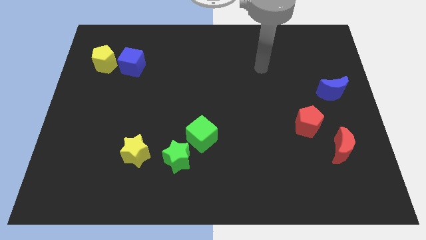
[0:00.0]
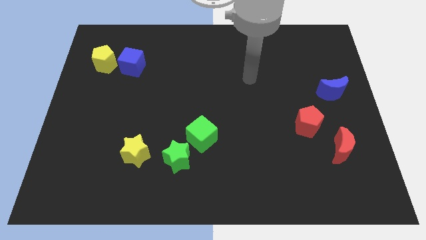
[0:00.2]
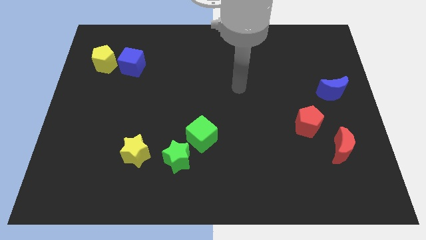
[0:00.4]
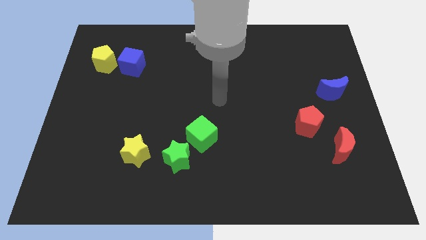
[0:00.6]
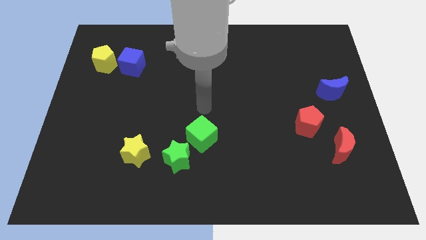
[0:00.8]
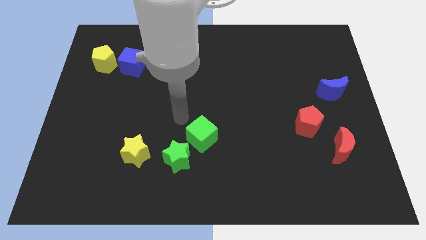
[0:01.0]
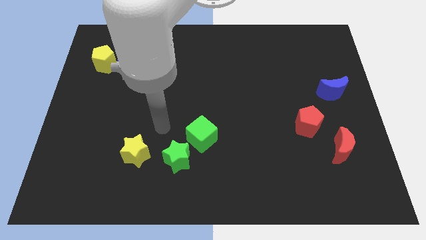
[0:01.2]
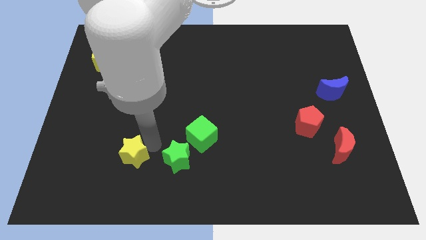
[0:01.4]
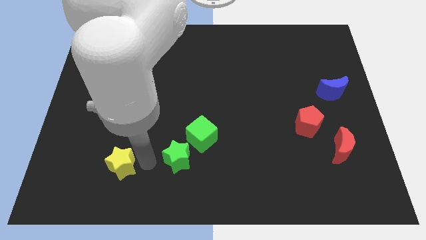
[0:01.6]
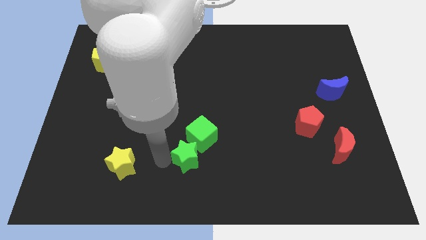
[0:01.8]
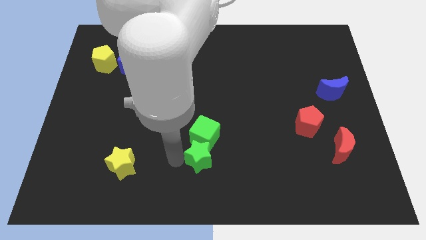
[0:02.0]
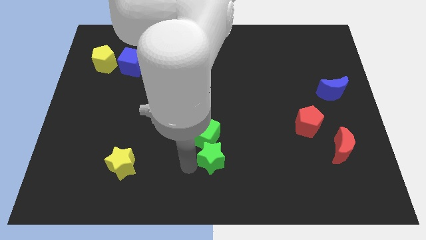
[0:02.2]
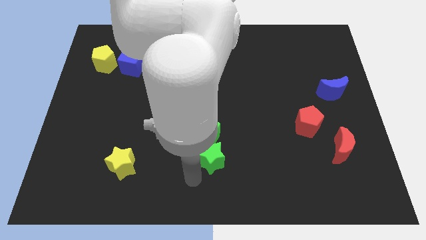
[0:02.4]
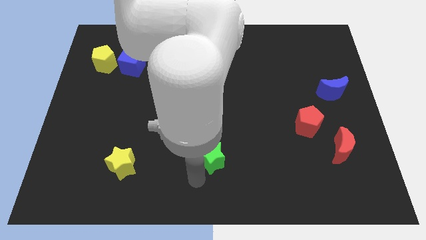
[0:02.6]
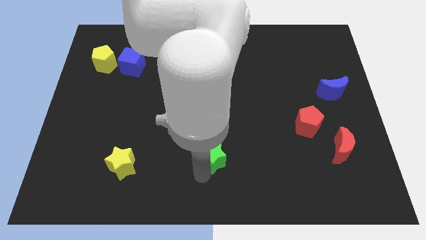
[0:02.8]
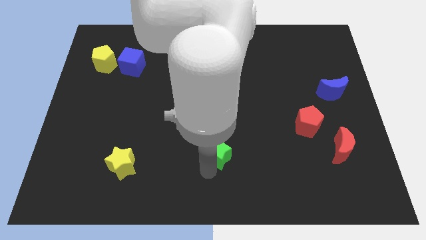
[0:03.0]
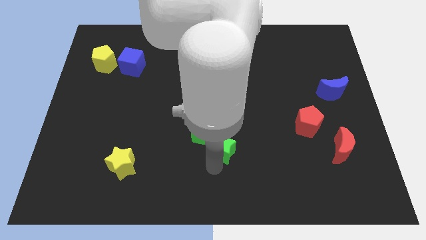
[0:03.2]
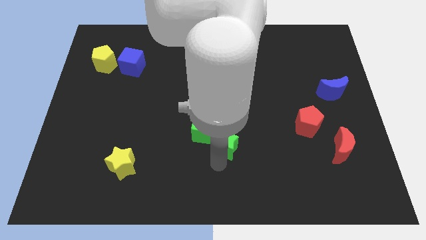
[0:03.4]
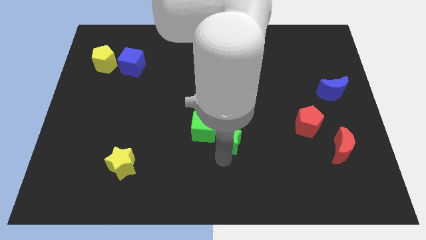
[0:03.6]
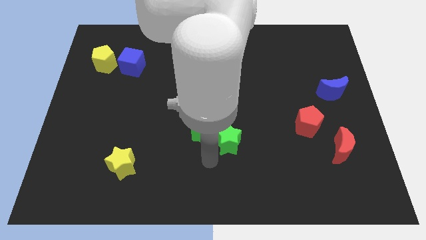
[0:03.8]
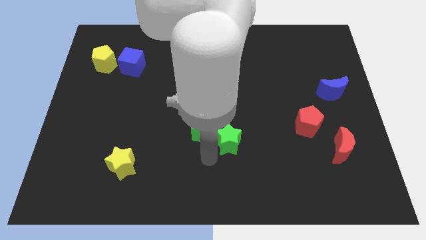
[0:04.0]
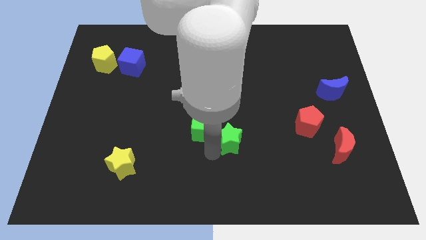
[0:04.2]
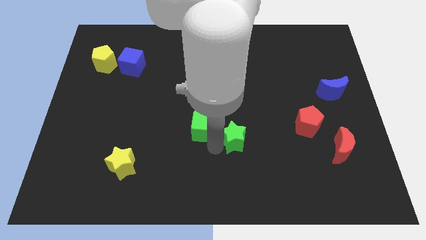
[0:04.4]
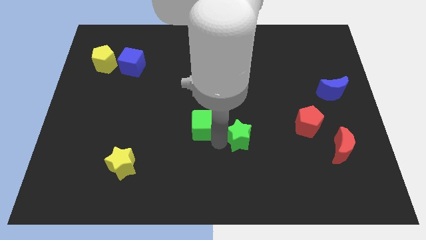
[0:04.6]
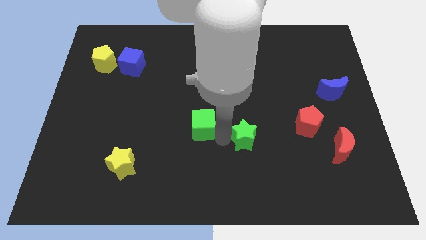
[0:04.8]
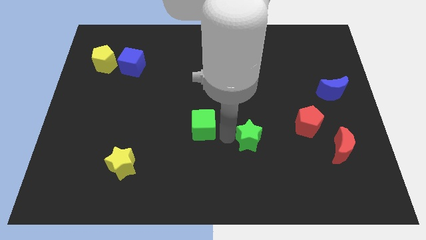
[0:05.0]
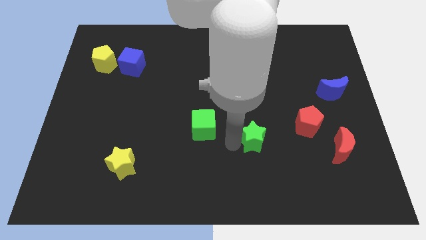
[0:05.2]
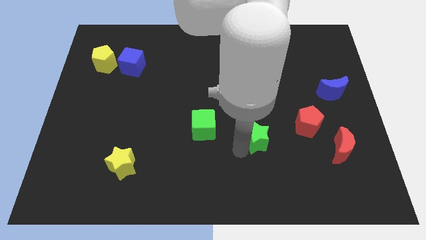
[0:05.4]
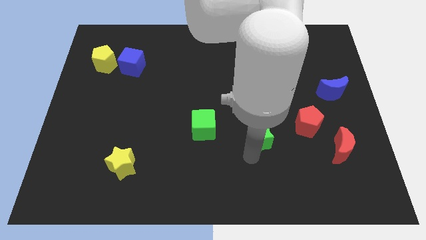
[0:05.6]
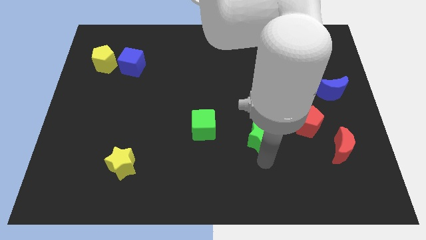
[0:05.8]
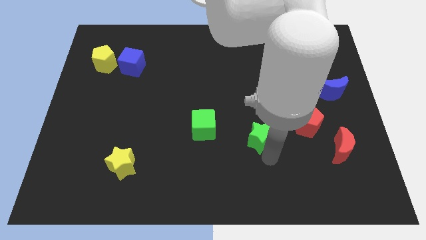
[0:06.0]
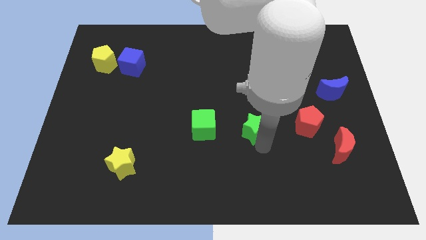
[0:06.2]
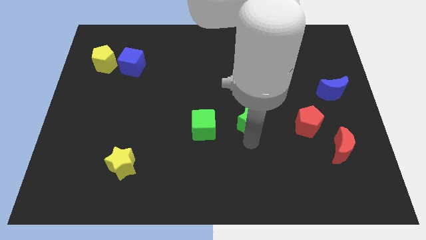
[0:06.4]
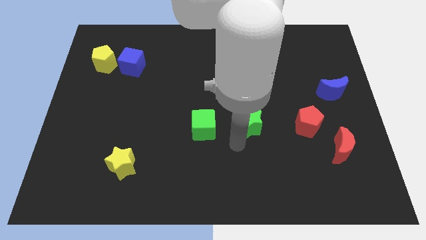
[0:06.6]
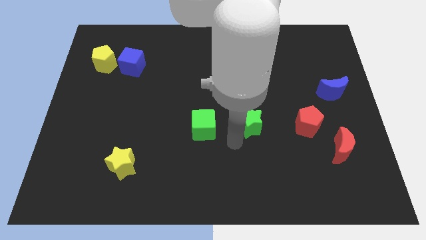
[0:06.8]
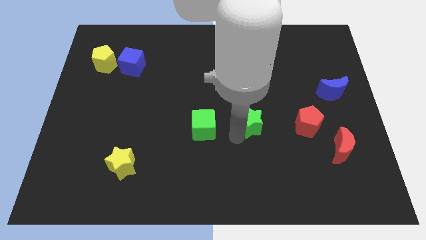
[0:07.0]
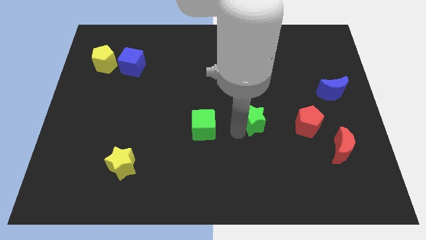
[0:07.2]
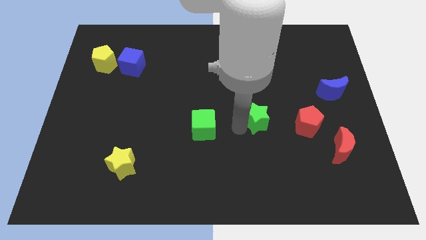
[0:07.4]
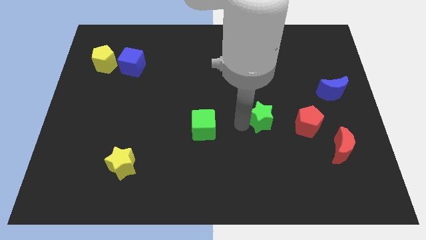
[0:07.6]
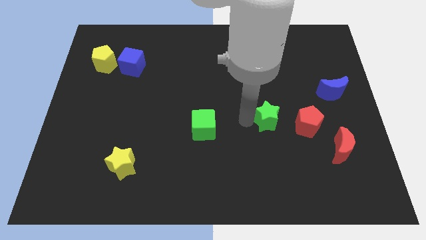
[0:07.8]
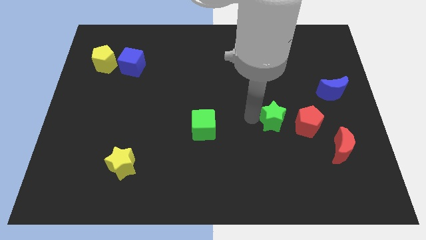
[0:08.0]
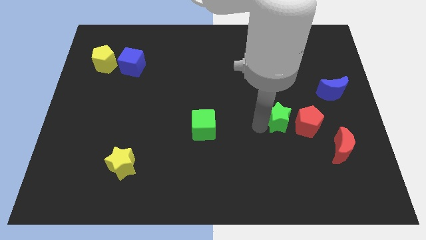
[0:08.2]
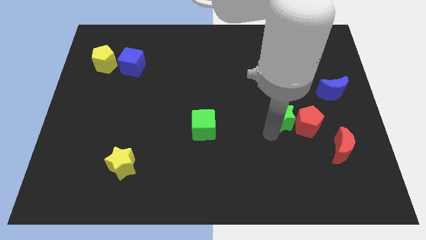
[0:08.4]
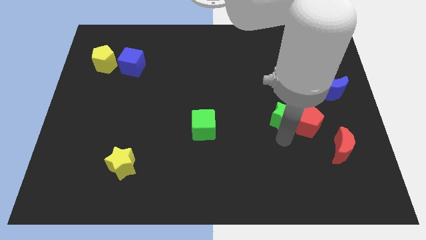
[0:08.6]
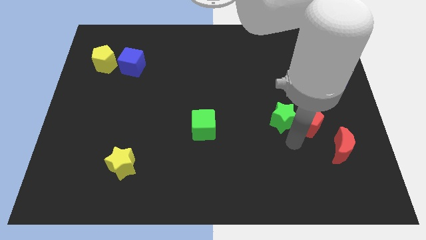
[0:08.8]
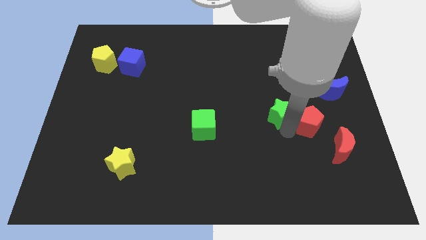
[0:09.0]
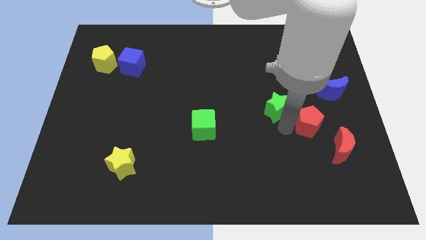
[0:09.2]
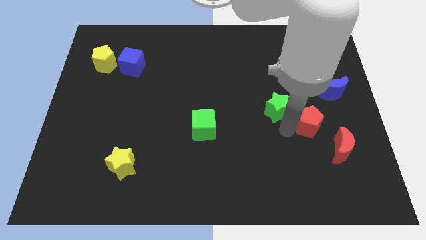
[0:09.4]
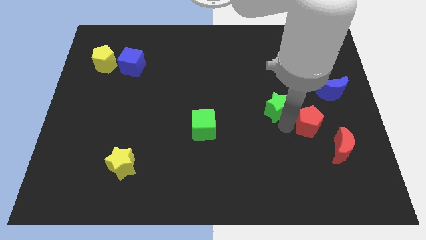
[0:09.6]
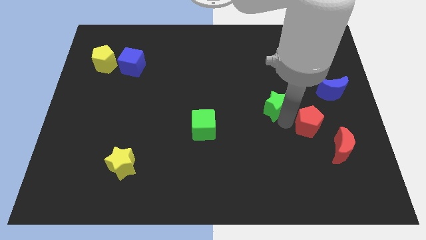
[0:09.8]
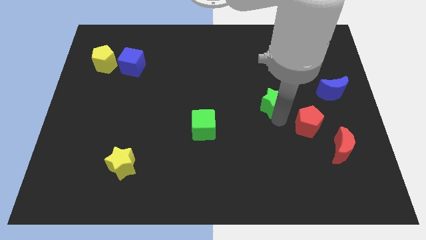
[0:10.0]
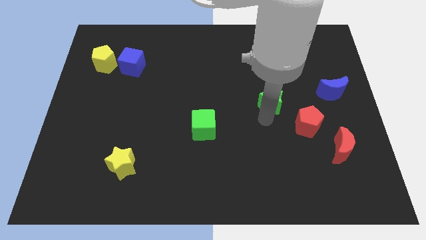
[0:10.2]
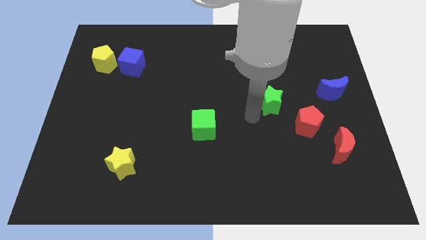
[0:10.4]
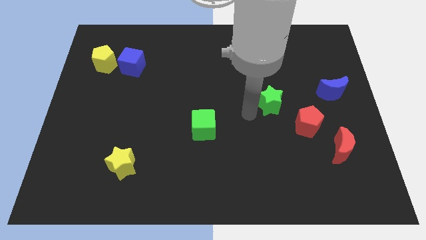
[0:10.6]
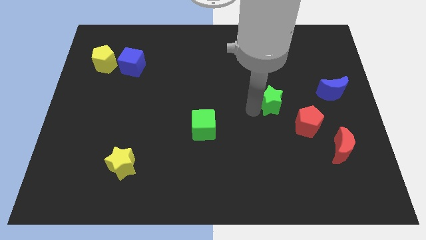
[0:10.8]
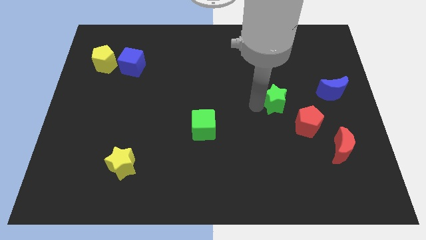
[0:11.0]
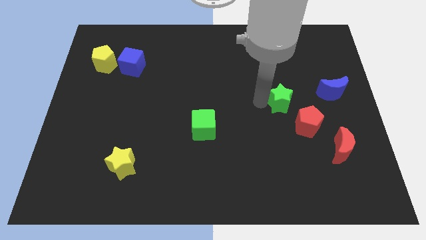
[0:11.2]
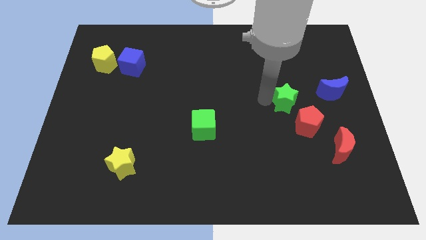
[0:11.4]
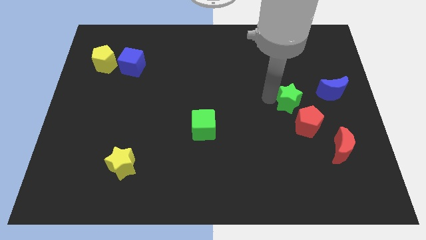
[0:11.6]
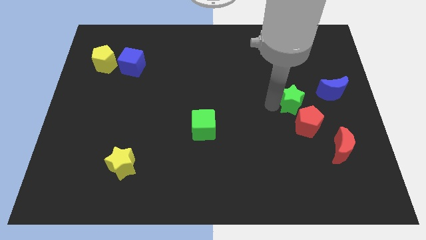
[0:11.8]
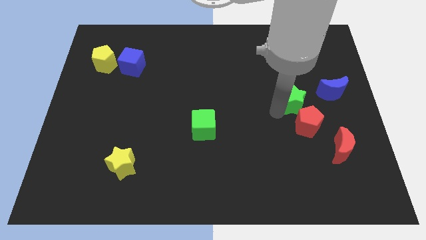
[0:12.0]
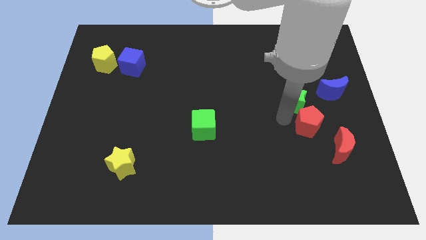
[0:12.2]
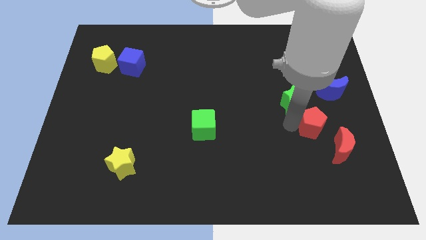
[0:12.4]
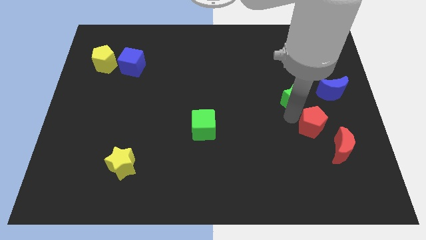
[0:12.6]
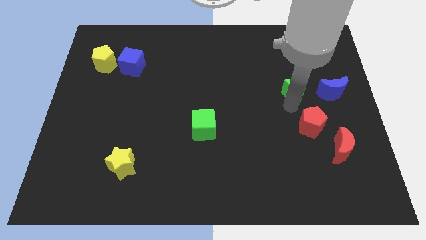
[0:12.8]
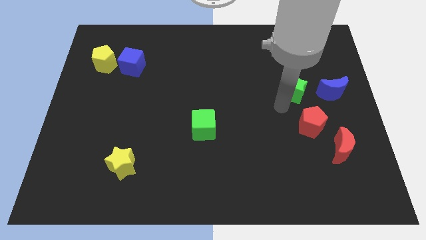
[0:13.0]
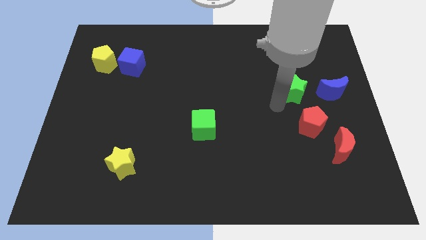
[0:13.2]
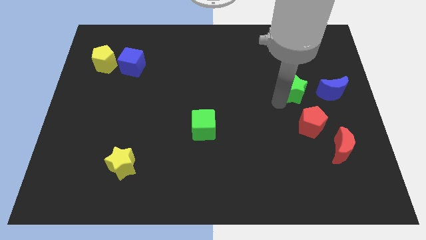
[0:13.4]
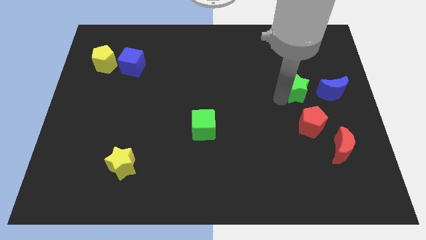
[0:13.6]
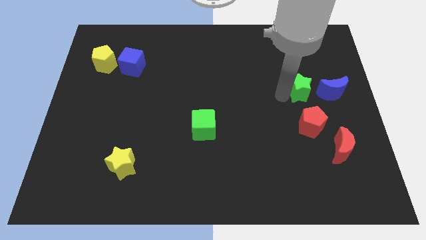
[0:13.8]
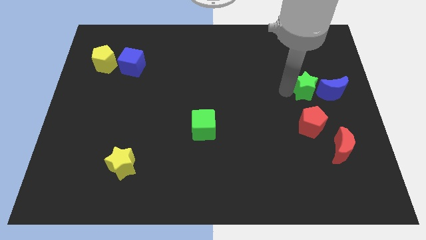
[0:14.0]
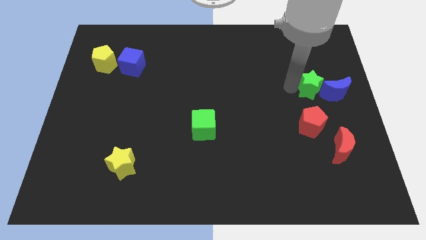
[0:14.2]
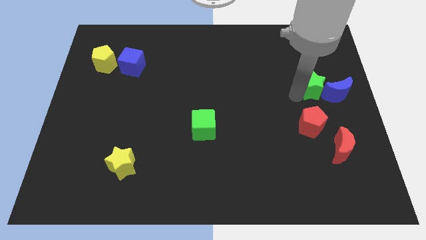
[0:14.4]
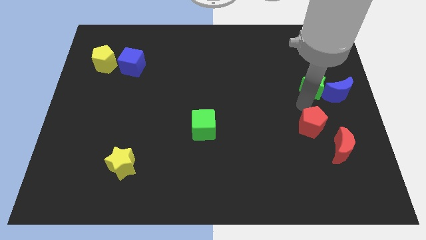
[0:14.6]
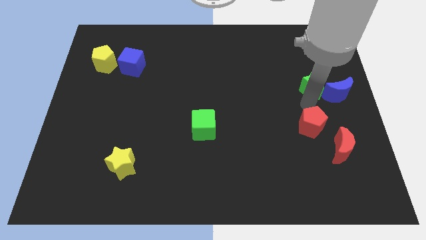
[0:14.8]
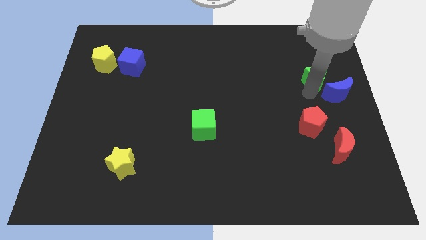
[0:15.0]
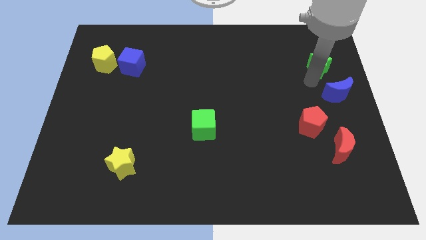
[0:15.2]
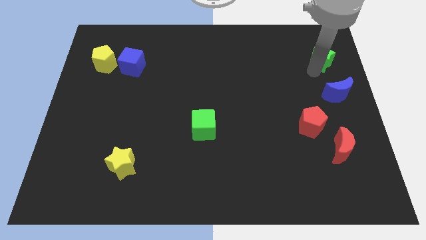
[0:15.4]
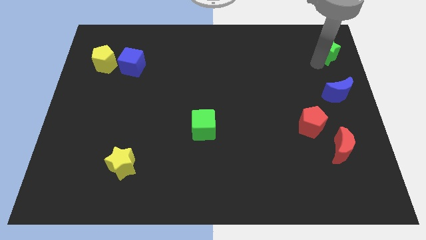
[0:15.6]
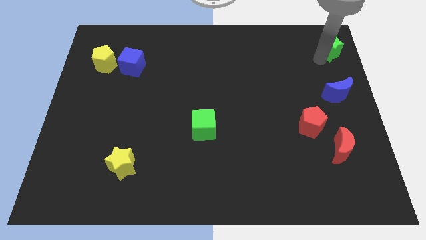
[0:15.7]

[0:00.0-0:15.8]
put the green star to the top right corner
